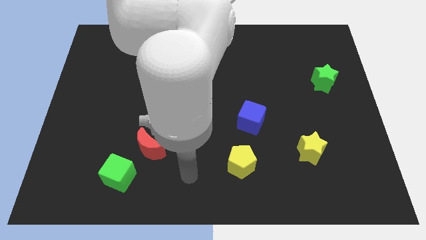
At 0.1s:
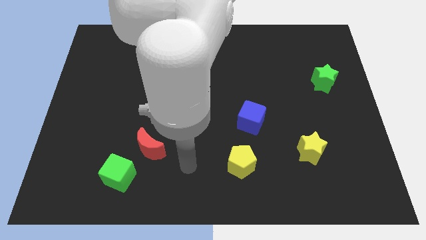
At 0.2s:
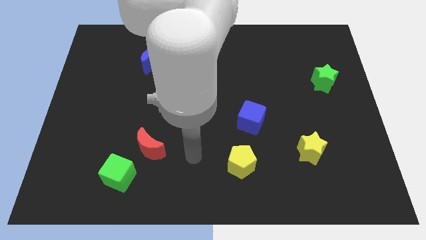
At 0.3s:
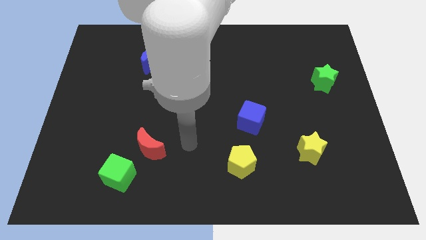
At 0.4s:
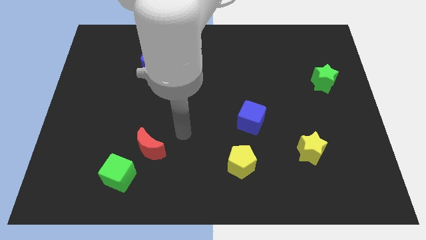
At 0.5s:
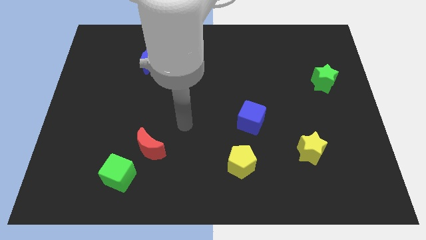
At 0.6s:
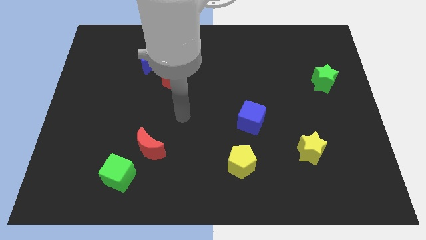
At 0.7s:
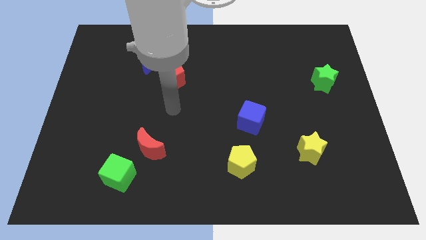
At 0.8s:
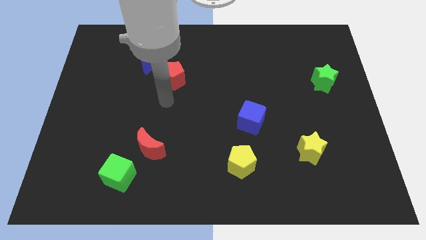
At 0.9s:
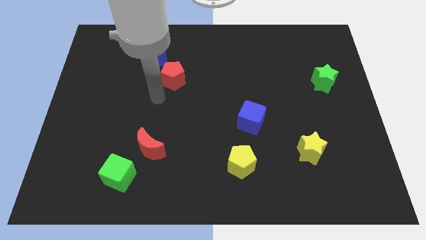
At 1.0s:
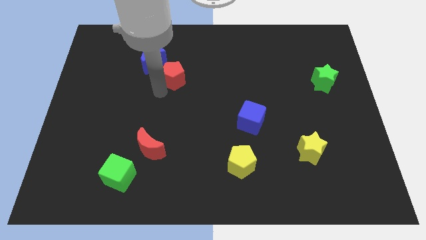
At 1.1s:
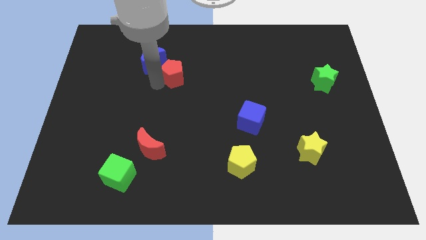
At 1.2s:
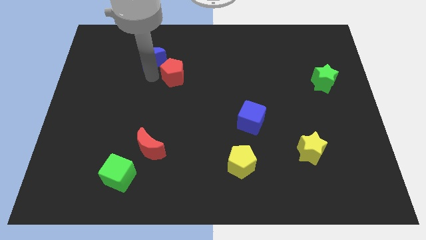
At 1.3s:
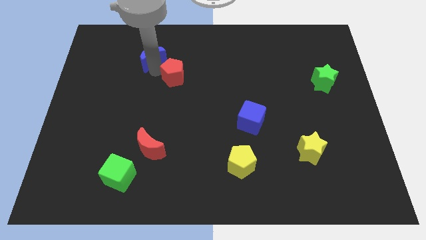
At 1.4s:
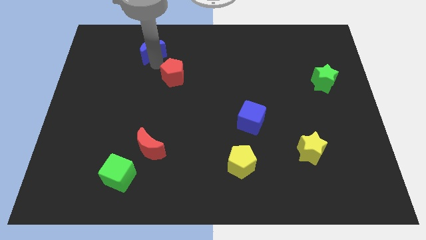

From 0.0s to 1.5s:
pull the red pentagon apart from the blue moon

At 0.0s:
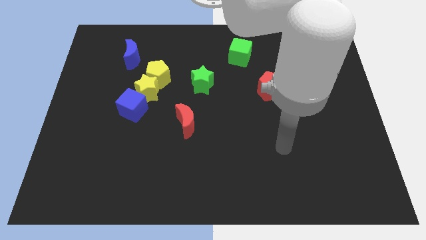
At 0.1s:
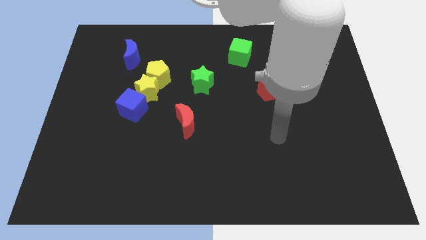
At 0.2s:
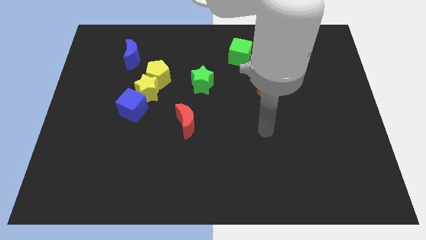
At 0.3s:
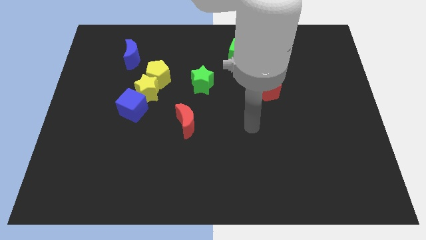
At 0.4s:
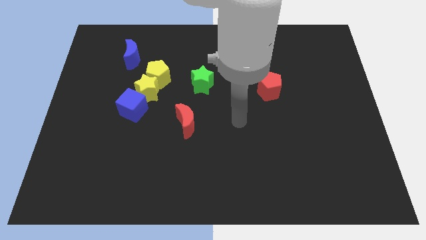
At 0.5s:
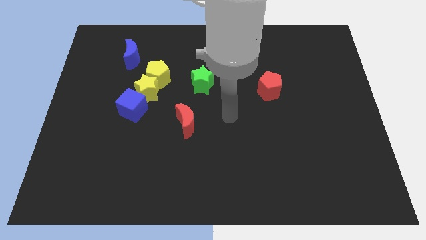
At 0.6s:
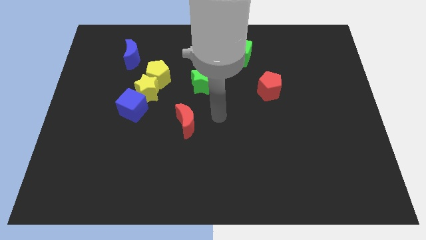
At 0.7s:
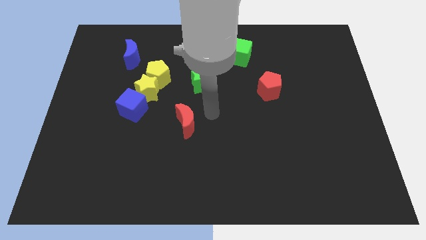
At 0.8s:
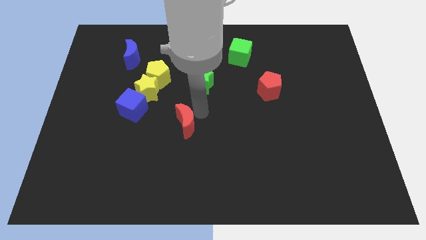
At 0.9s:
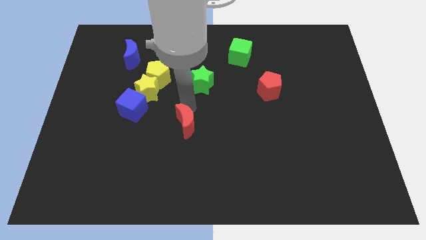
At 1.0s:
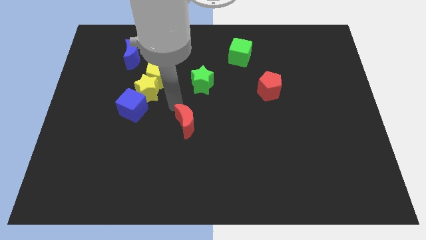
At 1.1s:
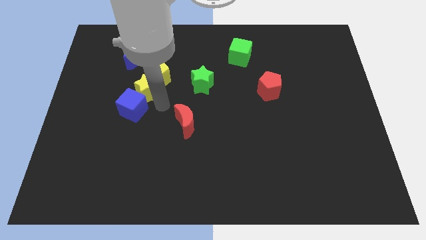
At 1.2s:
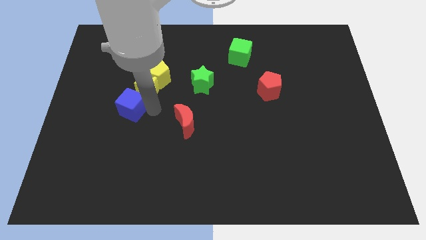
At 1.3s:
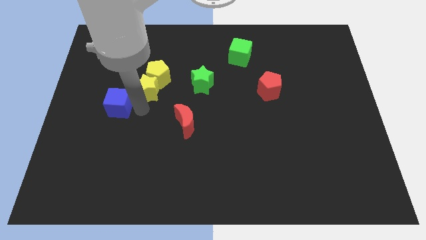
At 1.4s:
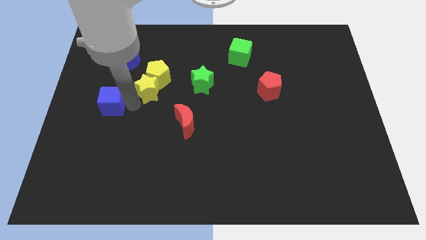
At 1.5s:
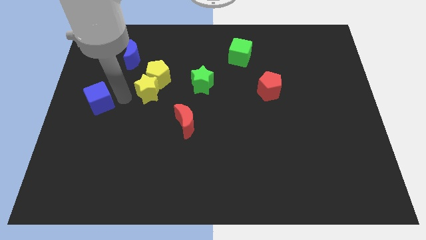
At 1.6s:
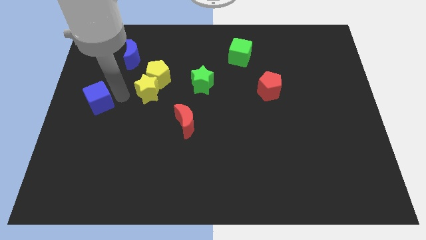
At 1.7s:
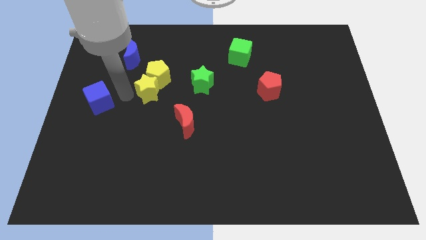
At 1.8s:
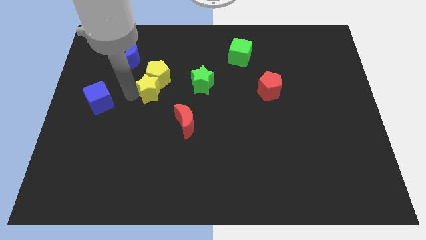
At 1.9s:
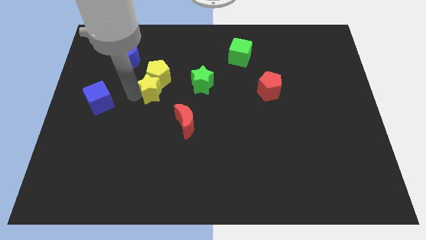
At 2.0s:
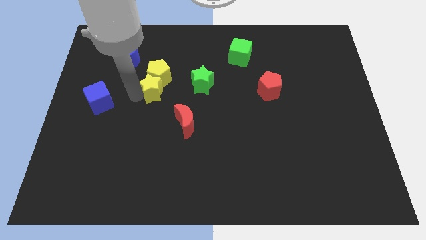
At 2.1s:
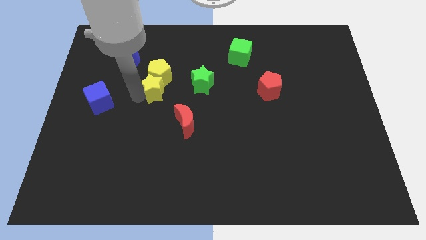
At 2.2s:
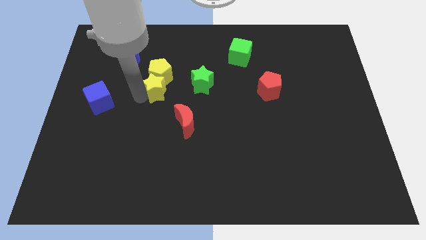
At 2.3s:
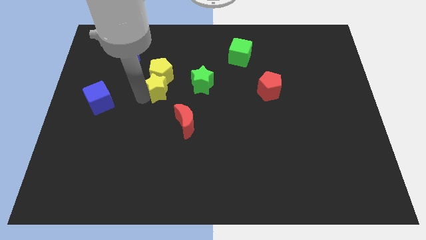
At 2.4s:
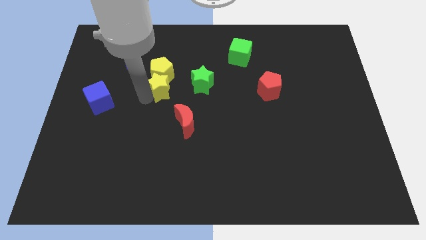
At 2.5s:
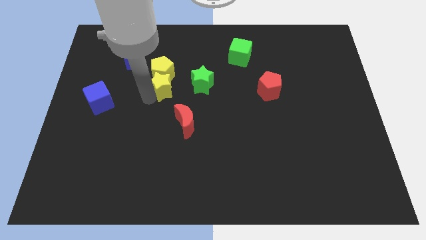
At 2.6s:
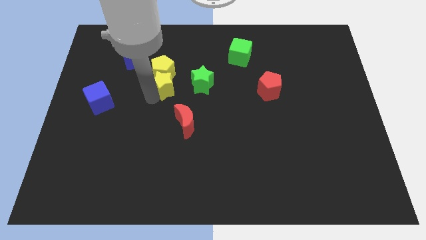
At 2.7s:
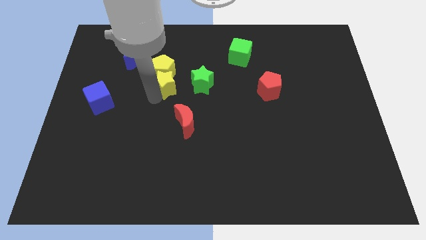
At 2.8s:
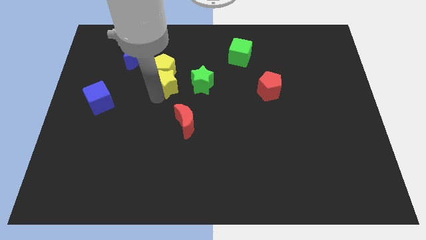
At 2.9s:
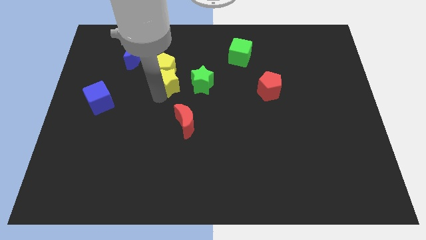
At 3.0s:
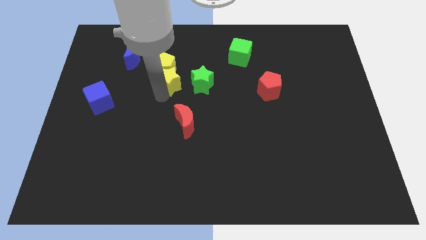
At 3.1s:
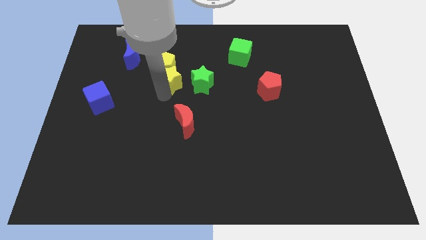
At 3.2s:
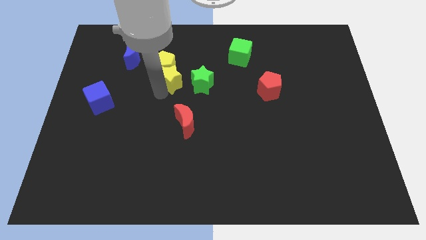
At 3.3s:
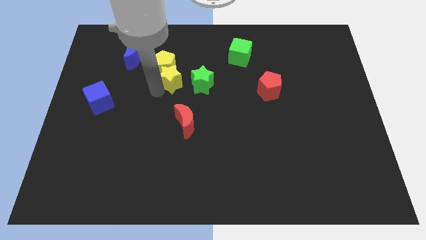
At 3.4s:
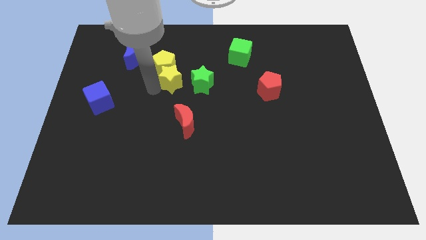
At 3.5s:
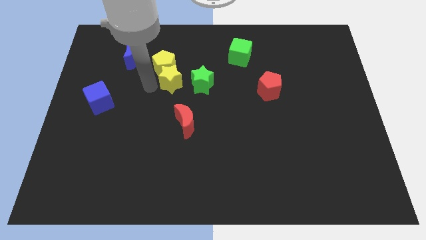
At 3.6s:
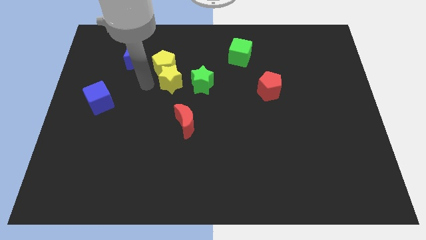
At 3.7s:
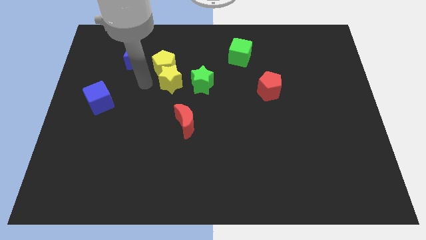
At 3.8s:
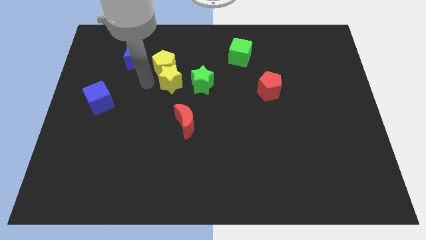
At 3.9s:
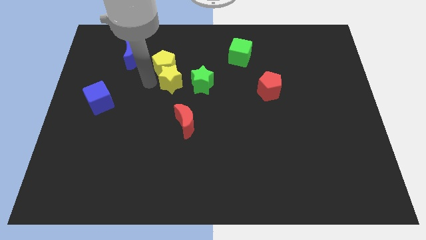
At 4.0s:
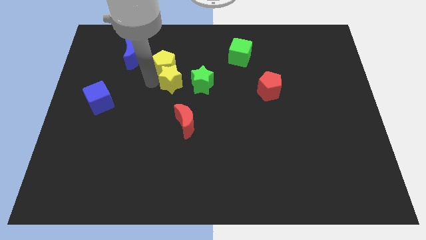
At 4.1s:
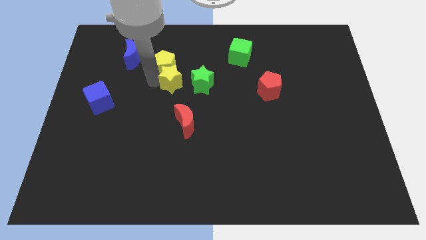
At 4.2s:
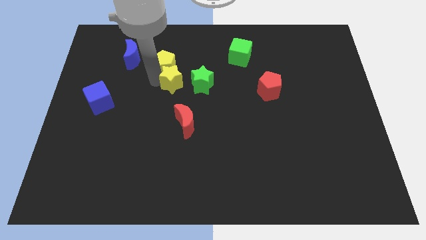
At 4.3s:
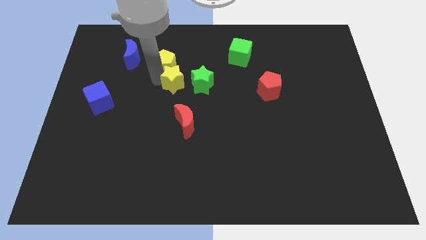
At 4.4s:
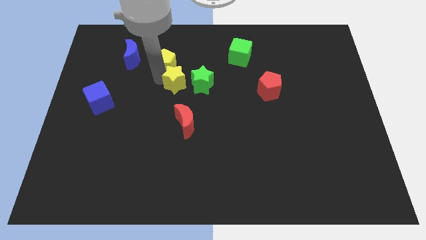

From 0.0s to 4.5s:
separate the yellow star from the yellow pentagon and blue cube

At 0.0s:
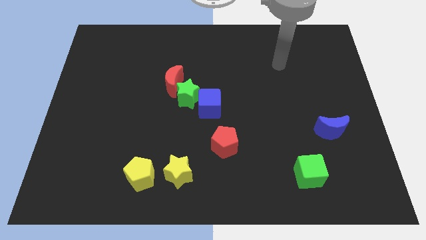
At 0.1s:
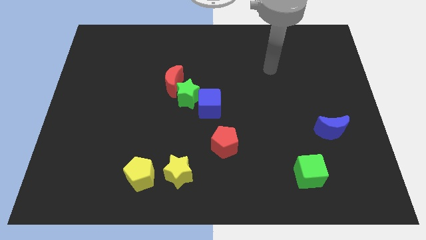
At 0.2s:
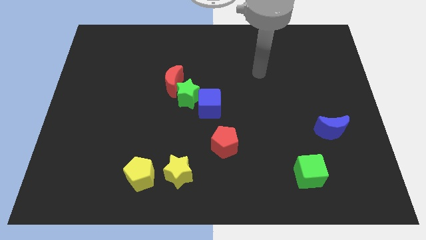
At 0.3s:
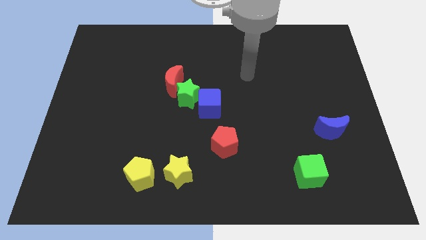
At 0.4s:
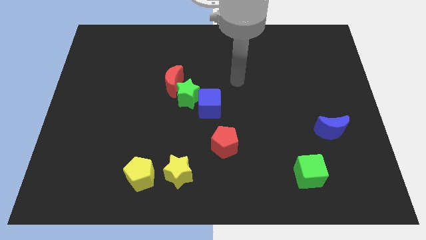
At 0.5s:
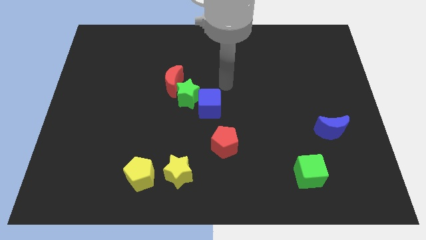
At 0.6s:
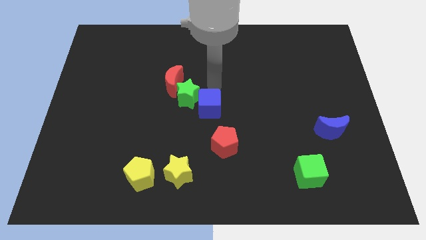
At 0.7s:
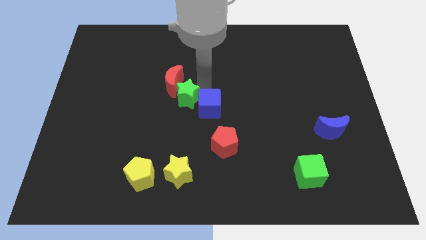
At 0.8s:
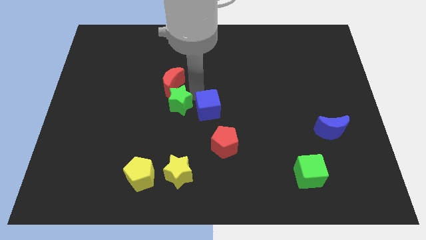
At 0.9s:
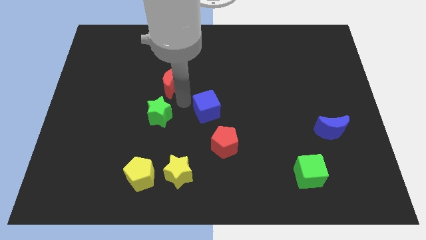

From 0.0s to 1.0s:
pull the blue cube apart from the green star

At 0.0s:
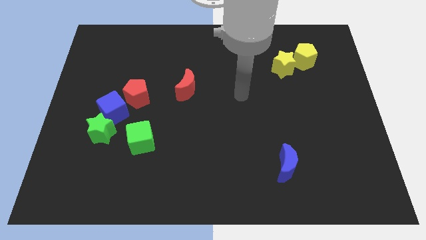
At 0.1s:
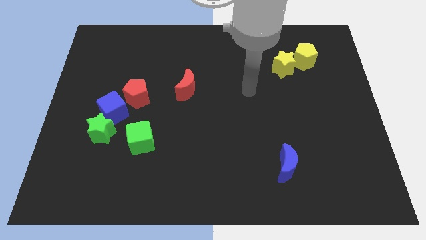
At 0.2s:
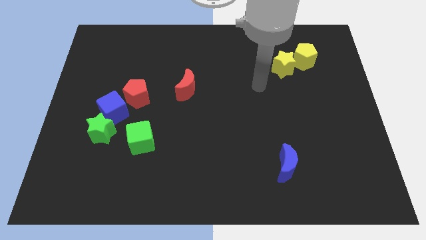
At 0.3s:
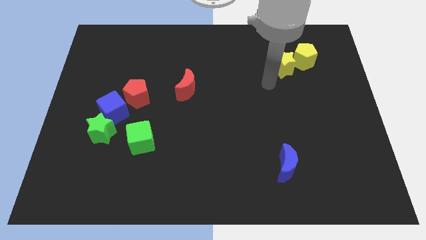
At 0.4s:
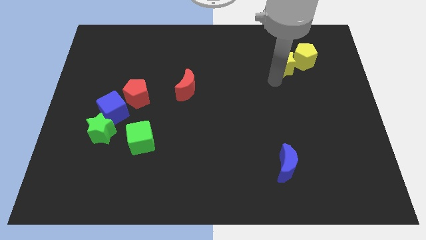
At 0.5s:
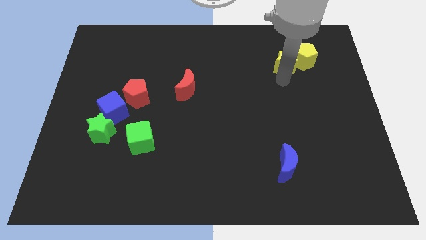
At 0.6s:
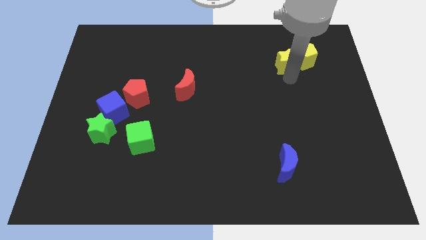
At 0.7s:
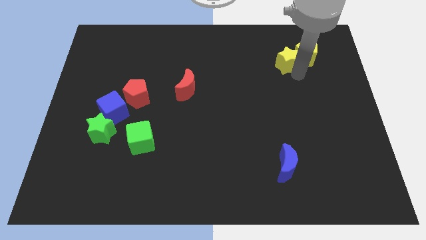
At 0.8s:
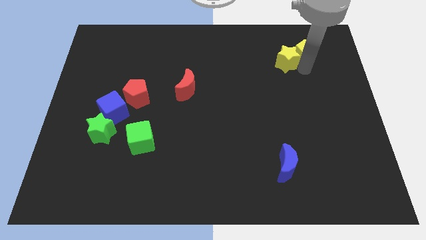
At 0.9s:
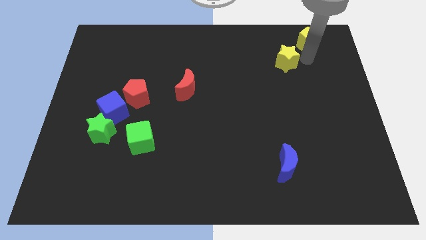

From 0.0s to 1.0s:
pull the yellow star apart from the yellow pentagon

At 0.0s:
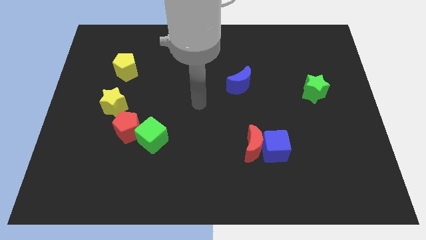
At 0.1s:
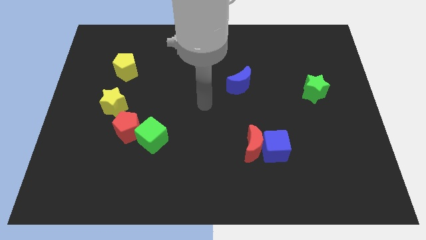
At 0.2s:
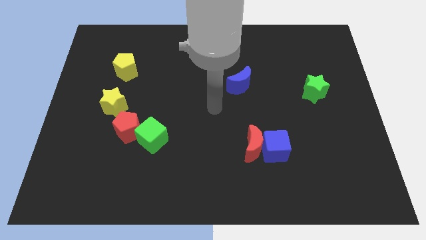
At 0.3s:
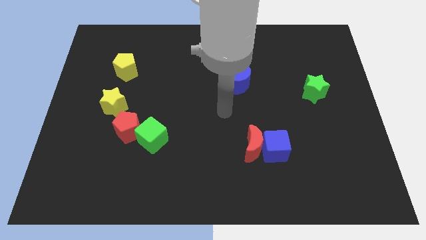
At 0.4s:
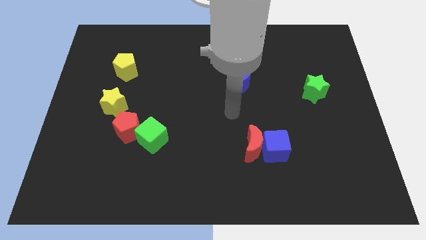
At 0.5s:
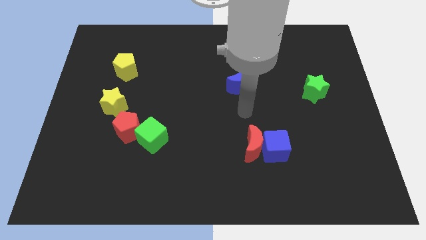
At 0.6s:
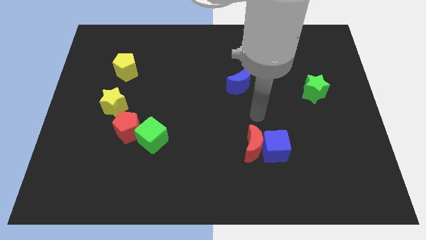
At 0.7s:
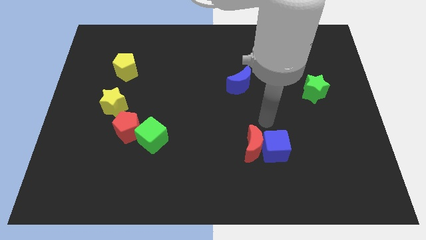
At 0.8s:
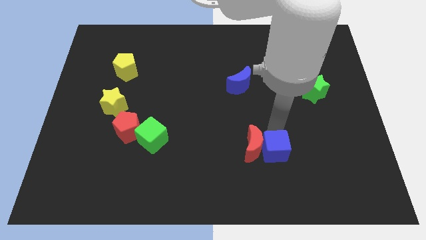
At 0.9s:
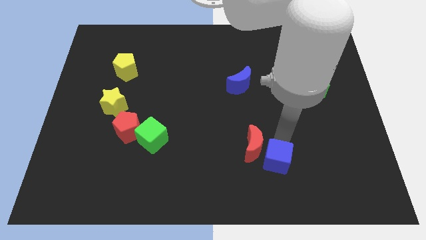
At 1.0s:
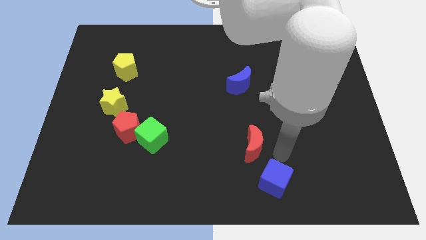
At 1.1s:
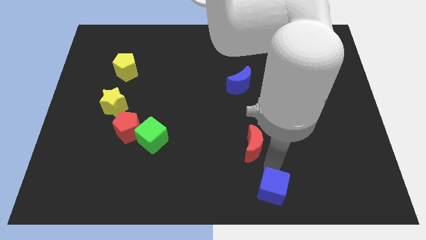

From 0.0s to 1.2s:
move the red moon away from the blue cube
